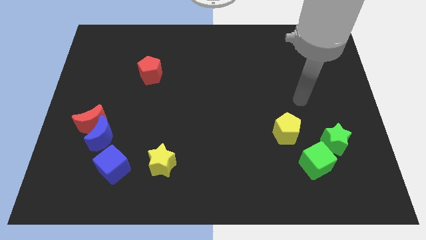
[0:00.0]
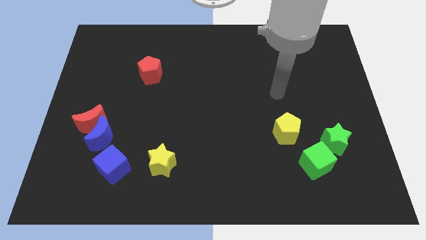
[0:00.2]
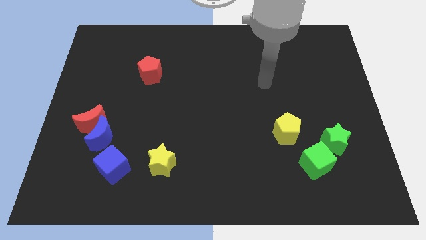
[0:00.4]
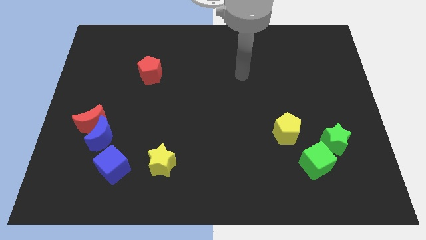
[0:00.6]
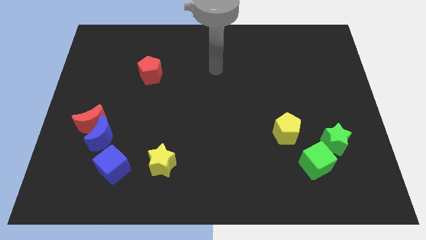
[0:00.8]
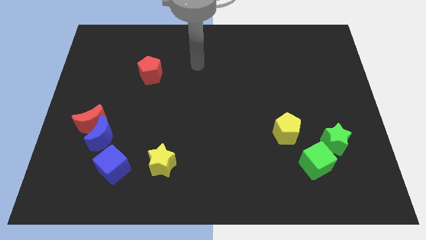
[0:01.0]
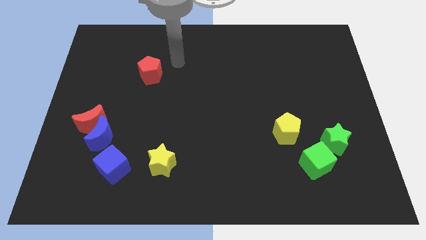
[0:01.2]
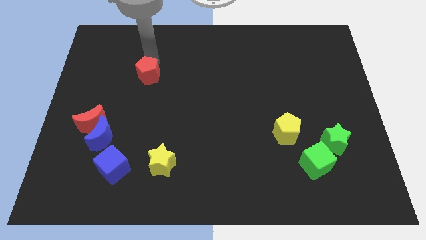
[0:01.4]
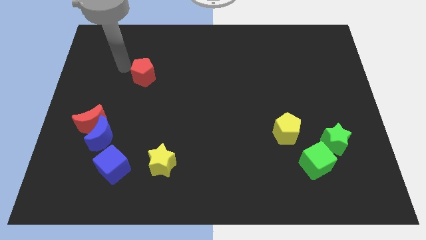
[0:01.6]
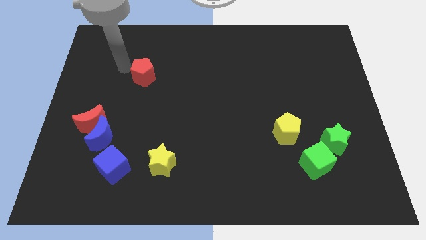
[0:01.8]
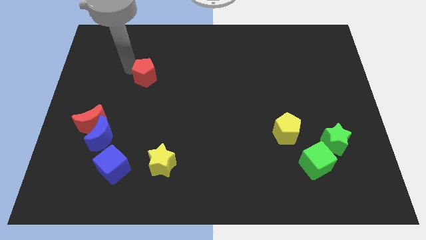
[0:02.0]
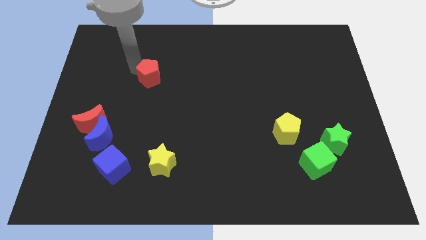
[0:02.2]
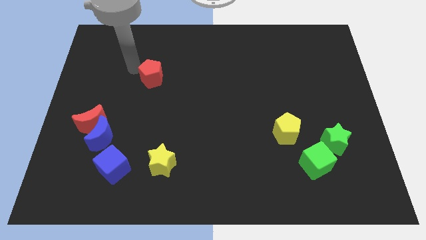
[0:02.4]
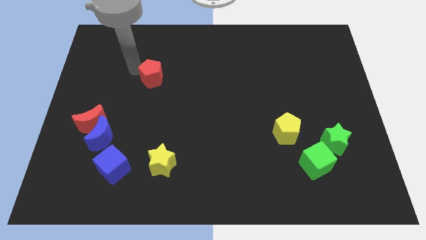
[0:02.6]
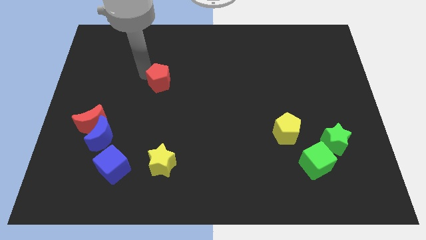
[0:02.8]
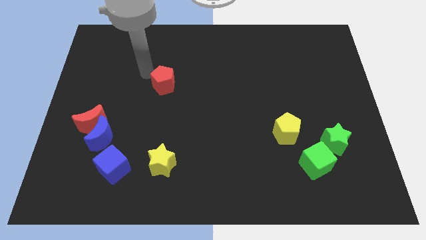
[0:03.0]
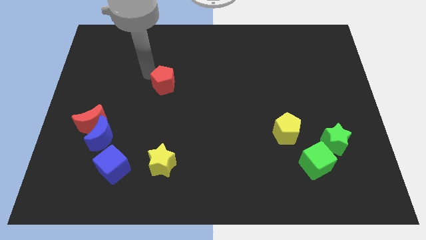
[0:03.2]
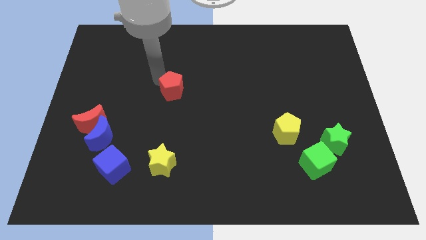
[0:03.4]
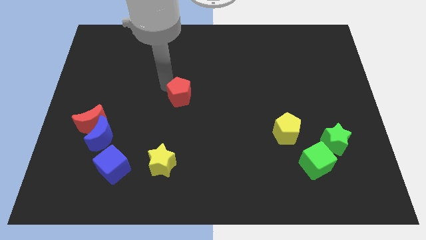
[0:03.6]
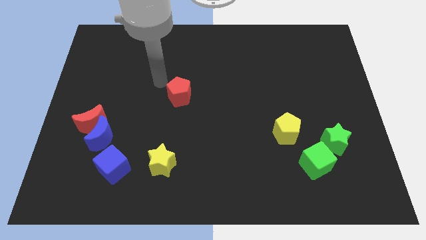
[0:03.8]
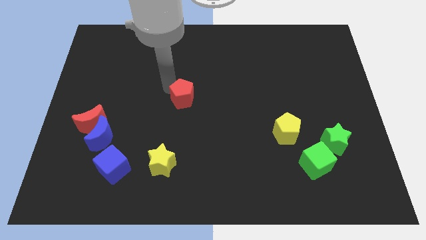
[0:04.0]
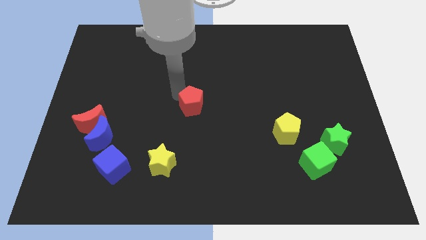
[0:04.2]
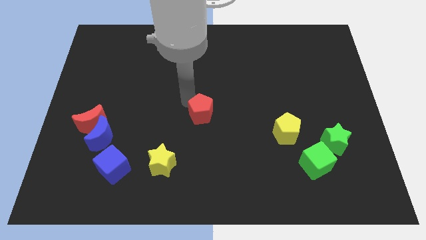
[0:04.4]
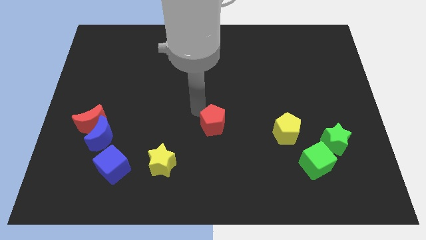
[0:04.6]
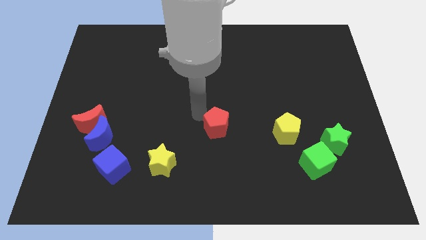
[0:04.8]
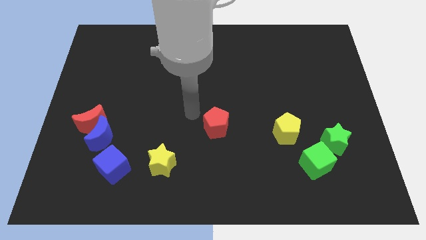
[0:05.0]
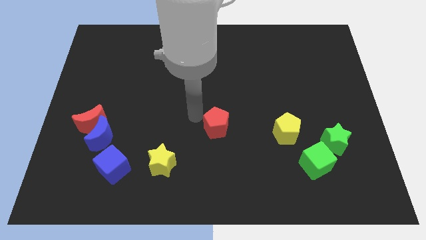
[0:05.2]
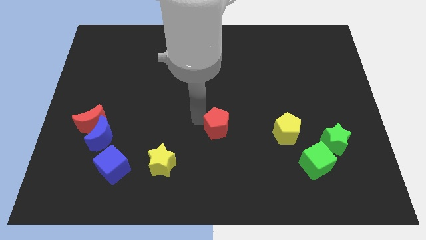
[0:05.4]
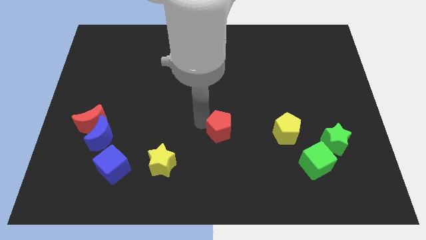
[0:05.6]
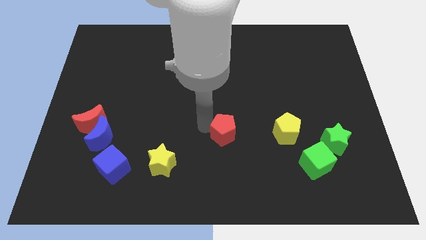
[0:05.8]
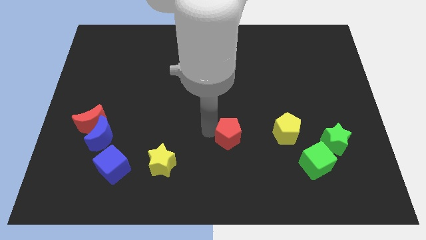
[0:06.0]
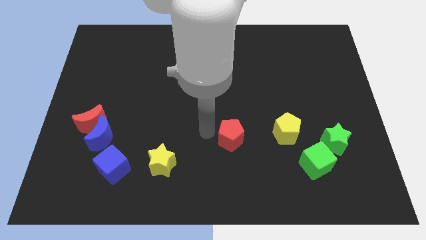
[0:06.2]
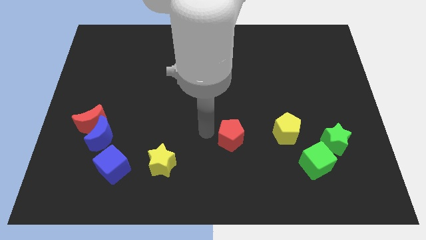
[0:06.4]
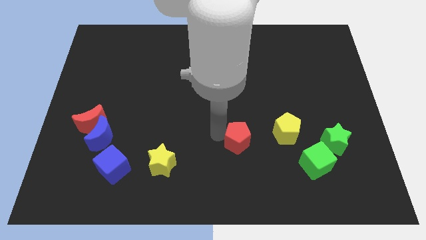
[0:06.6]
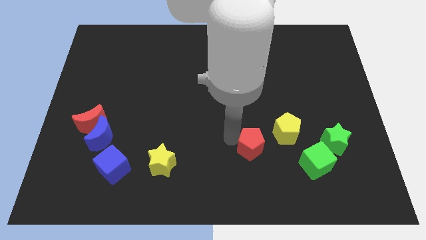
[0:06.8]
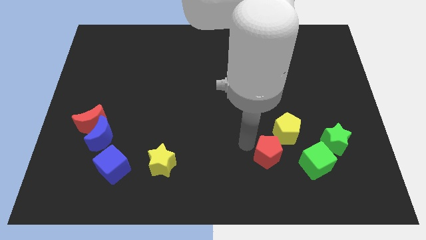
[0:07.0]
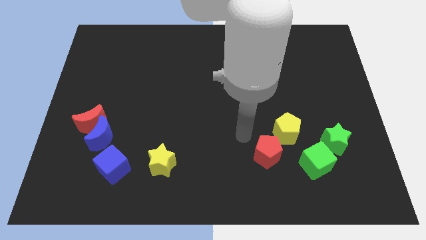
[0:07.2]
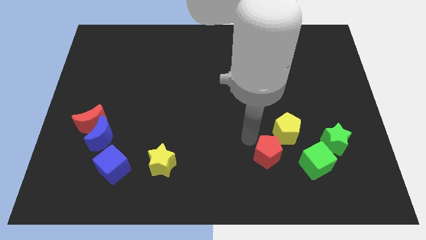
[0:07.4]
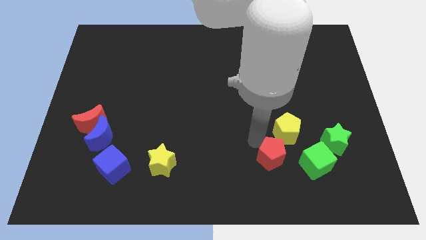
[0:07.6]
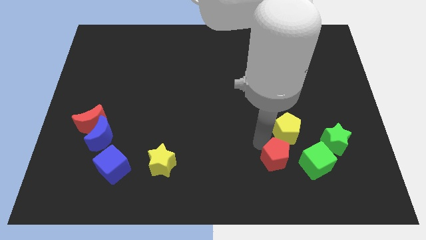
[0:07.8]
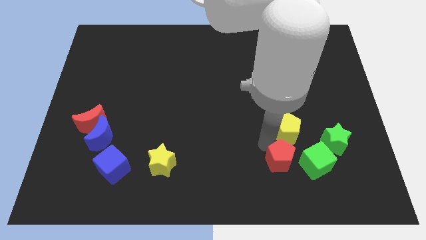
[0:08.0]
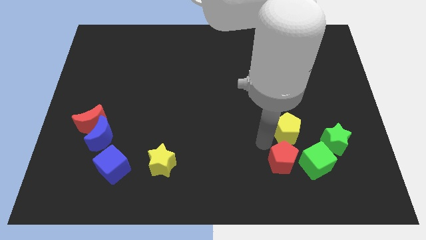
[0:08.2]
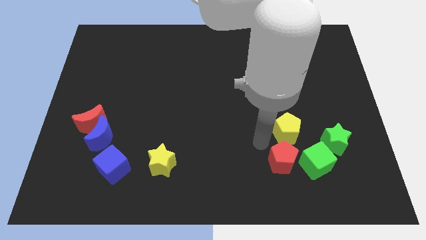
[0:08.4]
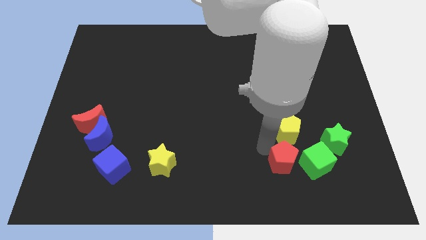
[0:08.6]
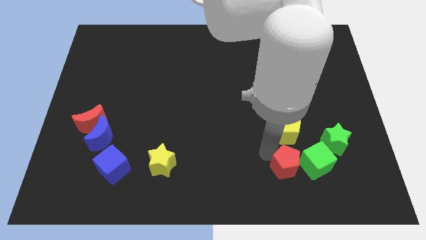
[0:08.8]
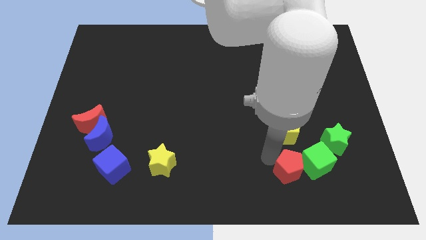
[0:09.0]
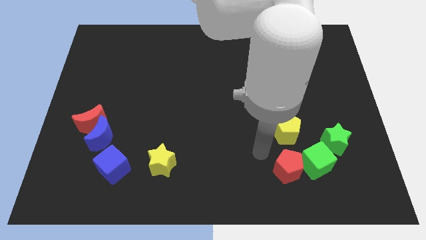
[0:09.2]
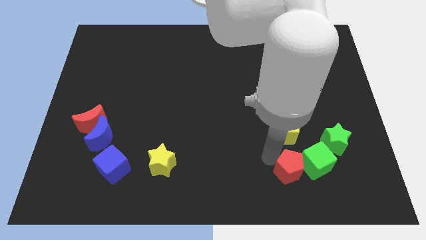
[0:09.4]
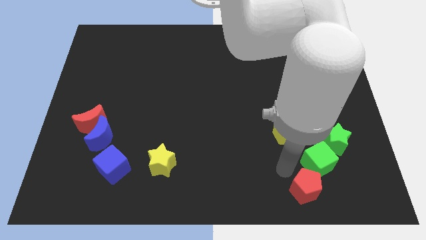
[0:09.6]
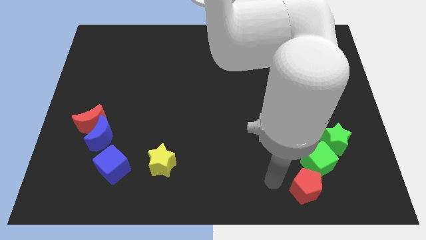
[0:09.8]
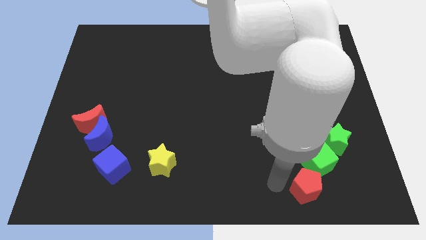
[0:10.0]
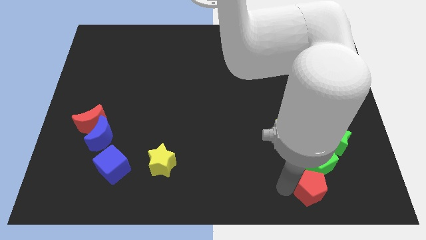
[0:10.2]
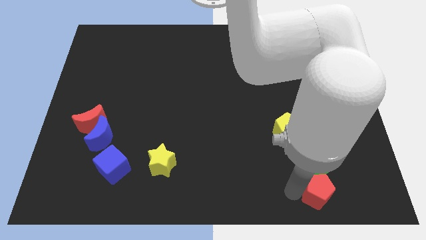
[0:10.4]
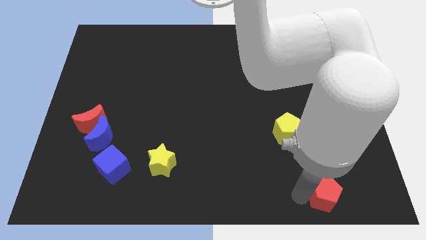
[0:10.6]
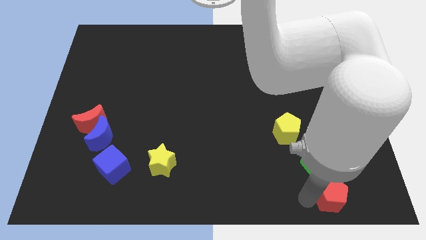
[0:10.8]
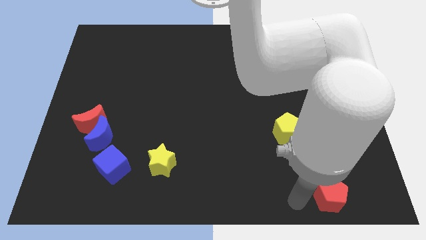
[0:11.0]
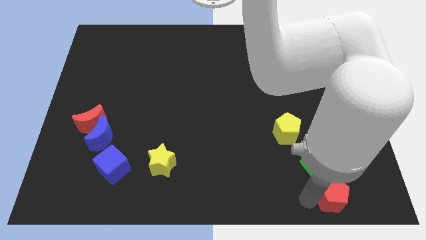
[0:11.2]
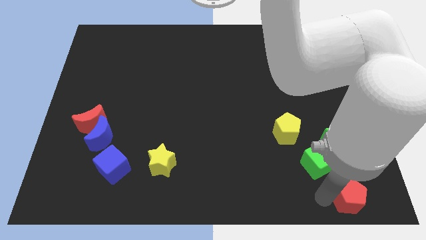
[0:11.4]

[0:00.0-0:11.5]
slide the red pentagon to the bottom right

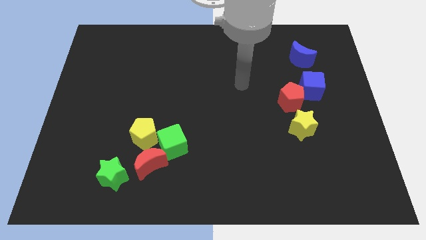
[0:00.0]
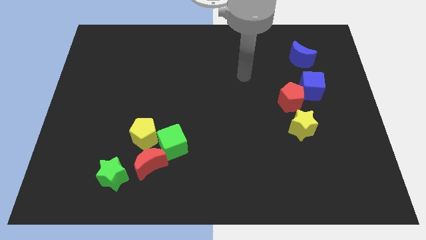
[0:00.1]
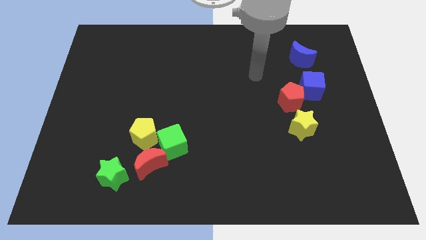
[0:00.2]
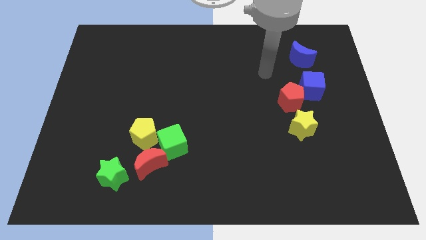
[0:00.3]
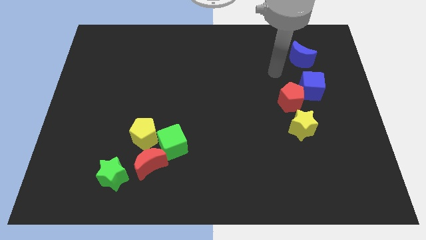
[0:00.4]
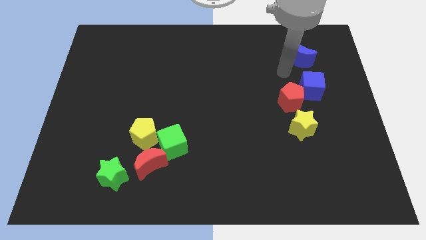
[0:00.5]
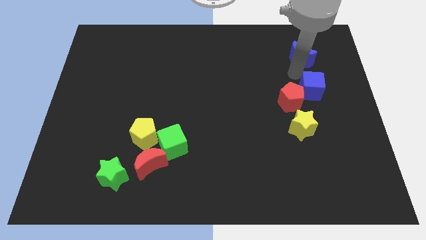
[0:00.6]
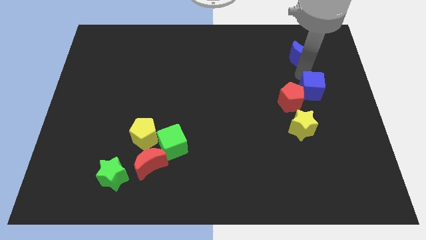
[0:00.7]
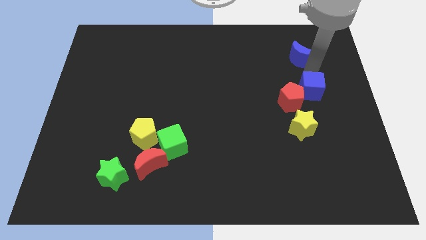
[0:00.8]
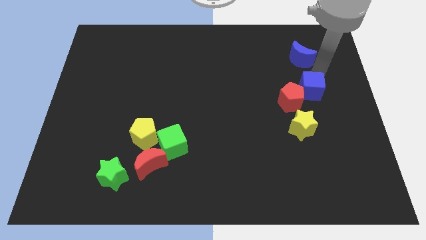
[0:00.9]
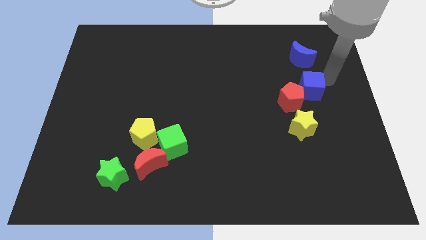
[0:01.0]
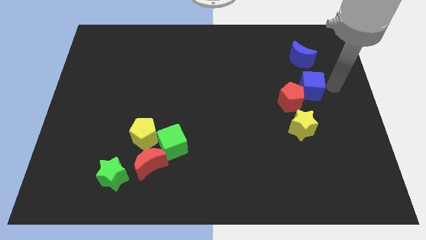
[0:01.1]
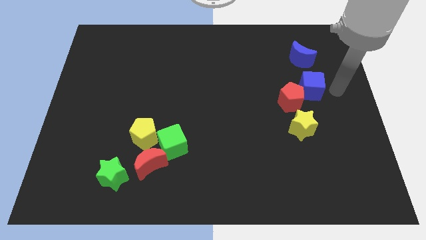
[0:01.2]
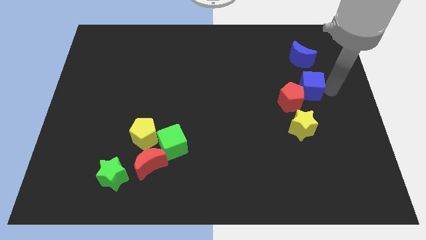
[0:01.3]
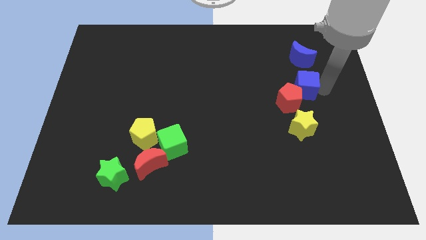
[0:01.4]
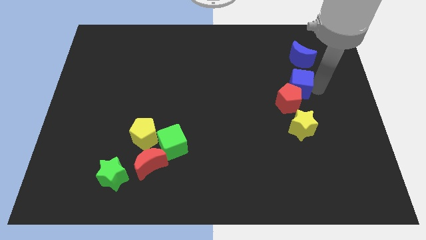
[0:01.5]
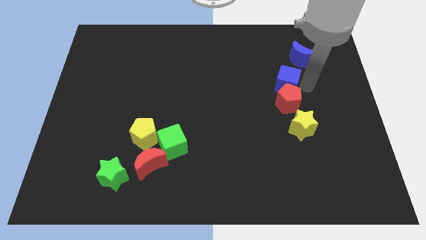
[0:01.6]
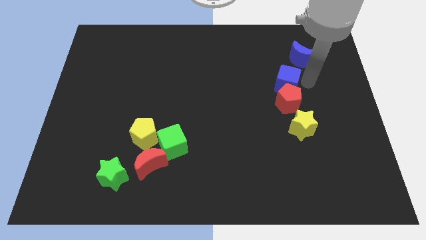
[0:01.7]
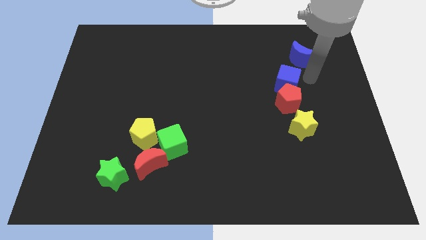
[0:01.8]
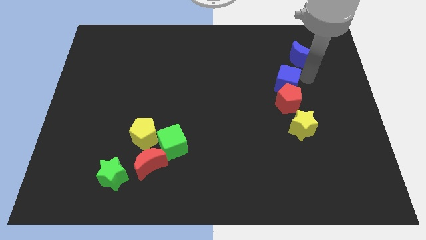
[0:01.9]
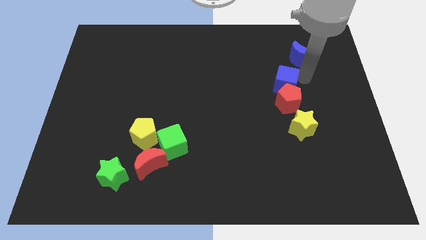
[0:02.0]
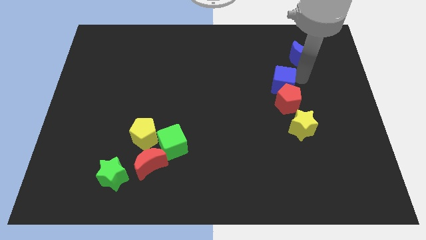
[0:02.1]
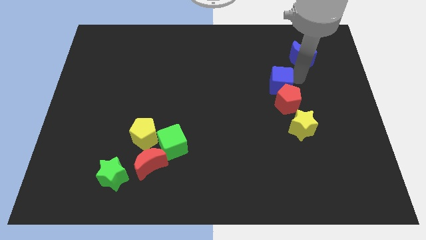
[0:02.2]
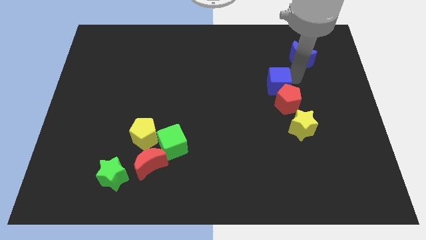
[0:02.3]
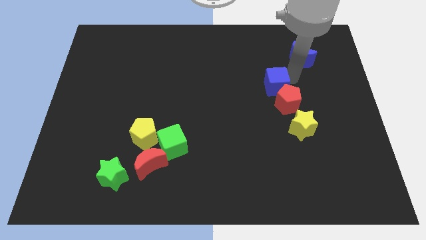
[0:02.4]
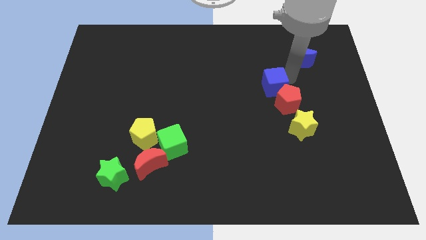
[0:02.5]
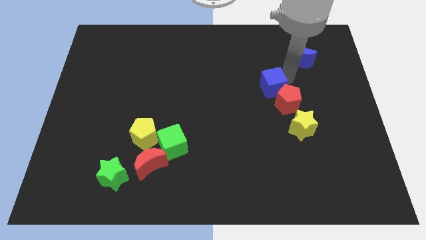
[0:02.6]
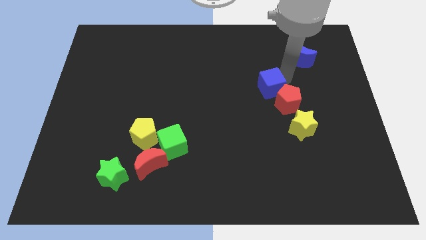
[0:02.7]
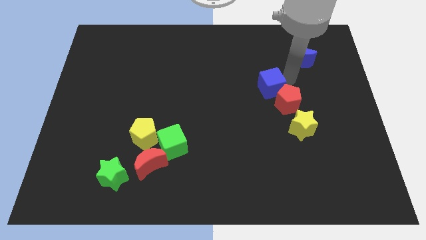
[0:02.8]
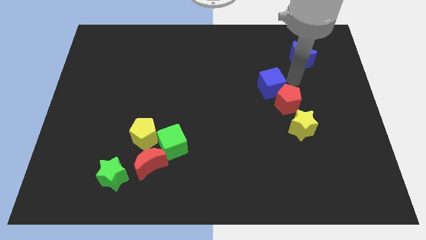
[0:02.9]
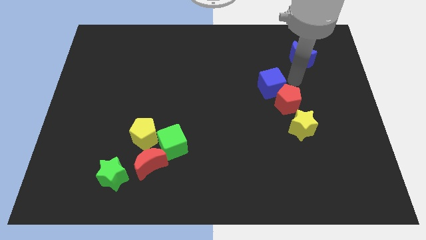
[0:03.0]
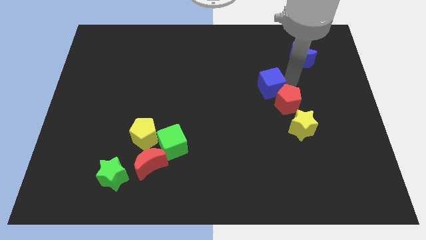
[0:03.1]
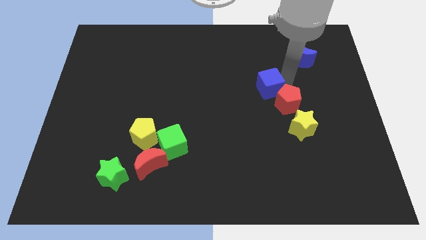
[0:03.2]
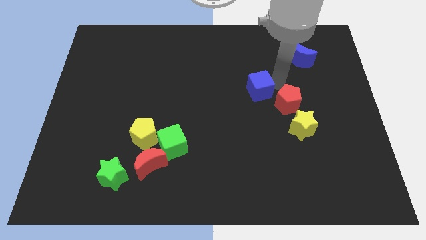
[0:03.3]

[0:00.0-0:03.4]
push the blue cube to the center
